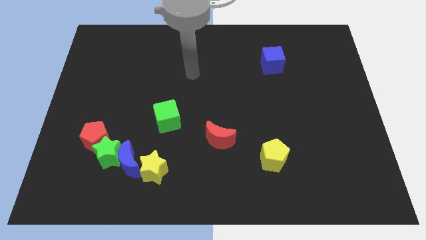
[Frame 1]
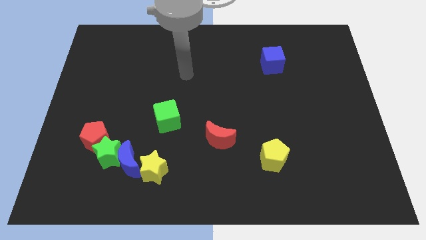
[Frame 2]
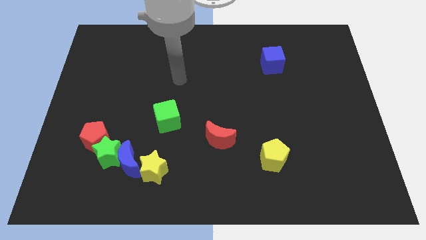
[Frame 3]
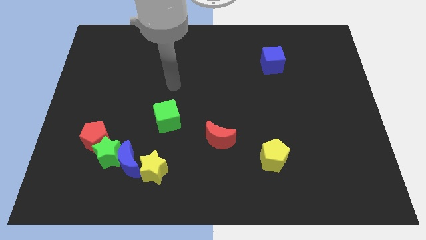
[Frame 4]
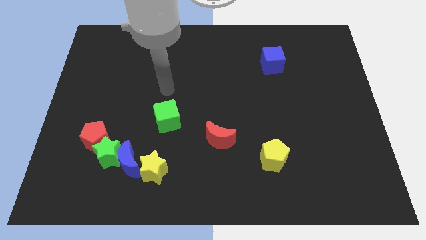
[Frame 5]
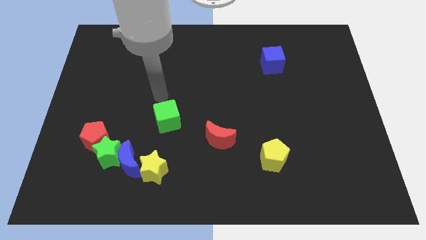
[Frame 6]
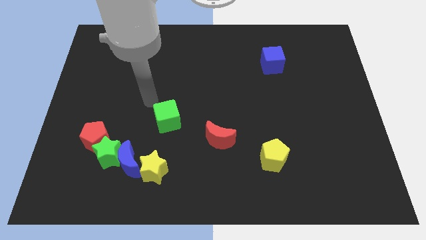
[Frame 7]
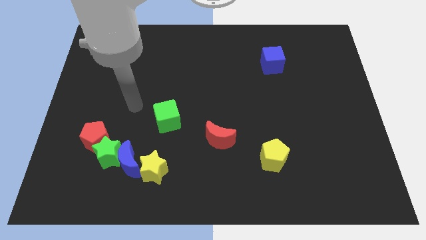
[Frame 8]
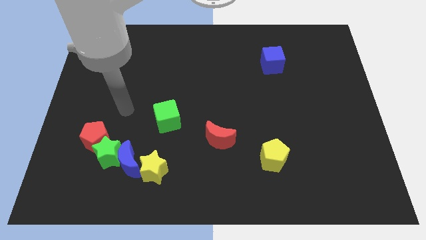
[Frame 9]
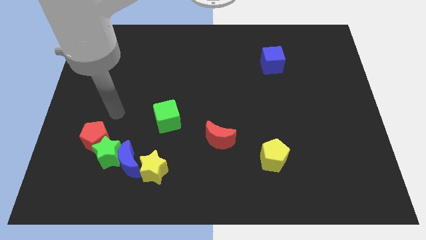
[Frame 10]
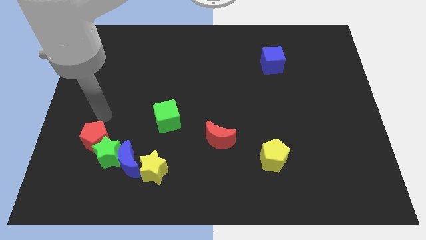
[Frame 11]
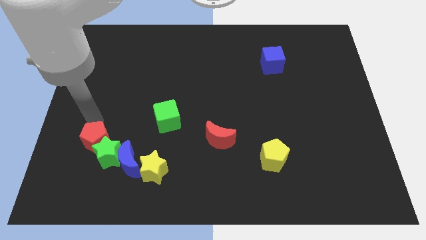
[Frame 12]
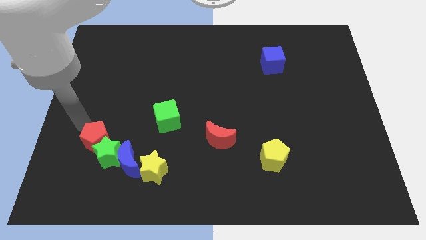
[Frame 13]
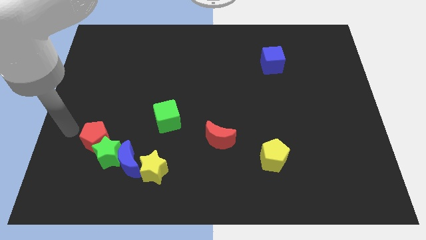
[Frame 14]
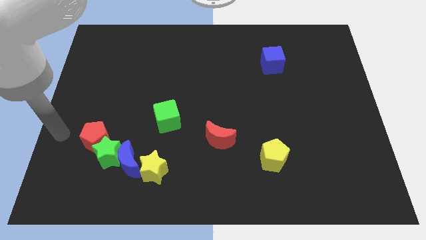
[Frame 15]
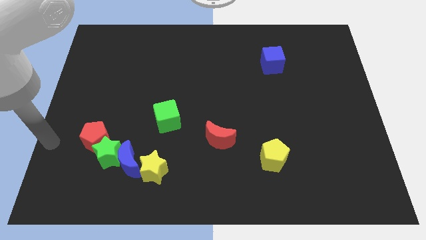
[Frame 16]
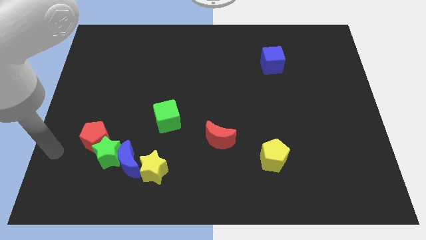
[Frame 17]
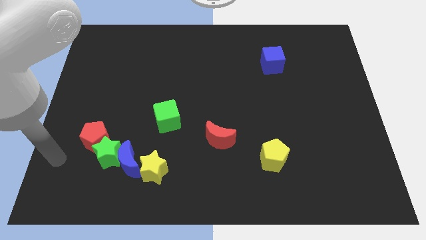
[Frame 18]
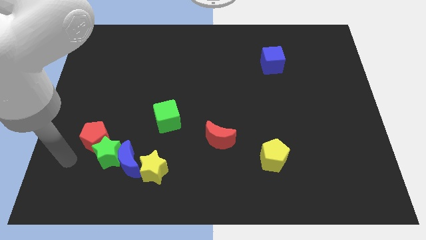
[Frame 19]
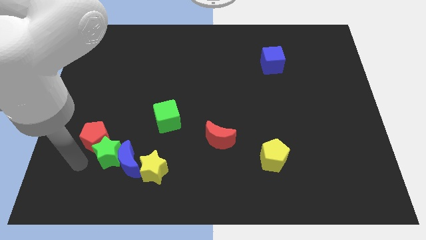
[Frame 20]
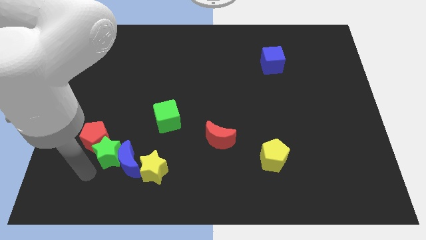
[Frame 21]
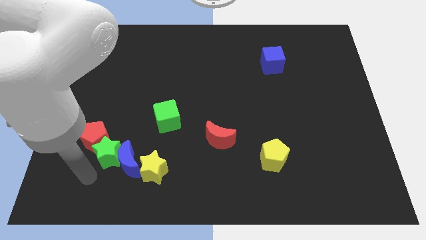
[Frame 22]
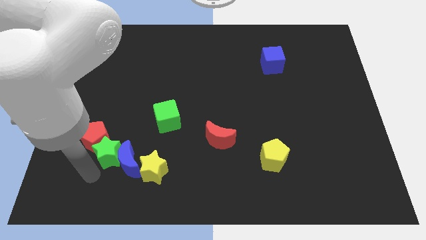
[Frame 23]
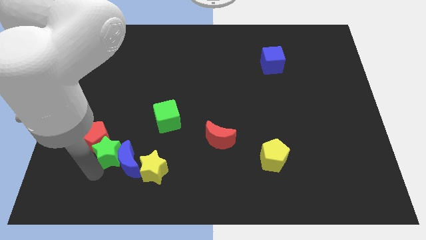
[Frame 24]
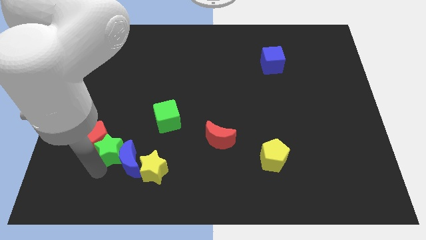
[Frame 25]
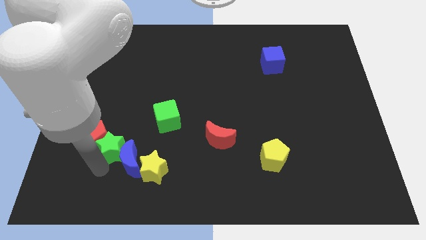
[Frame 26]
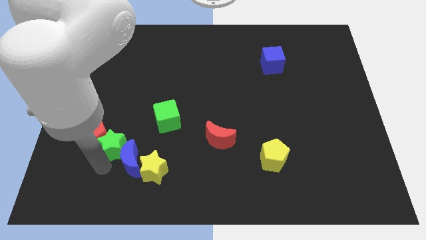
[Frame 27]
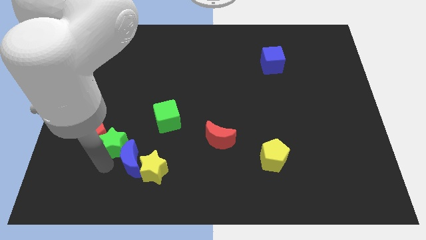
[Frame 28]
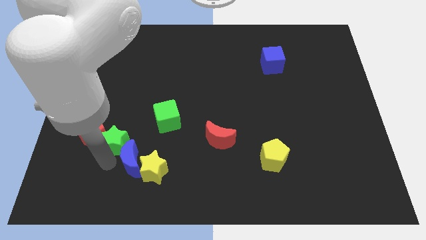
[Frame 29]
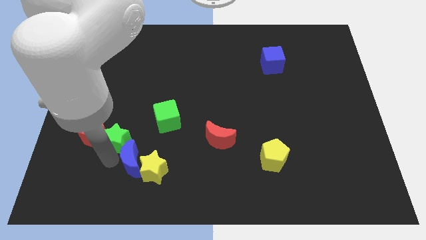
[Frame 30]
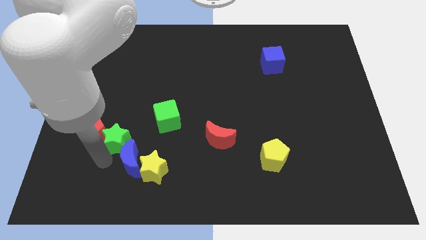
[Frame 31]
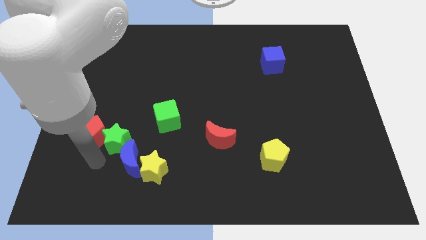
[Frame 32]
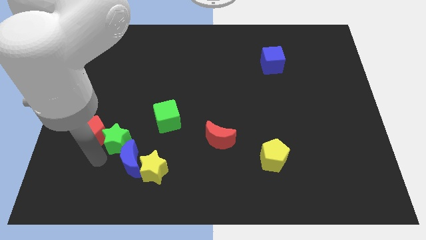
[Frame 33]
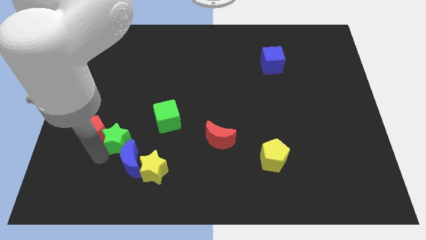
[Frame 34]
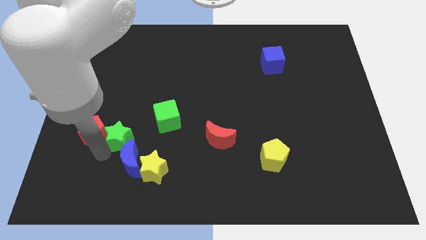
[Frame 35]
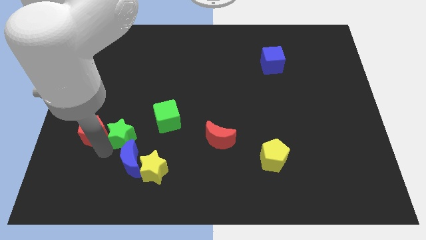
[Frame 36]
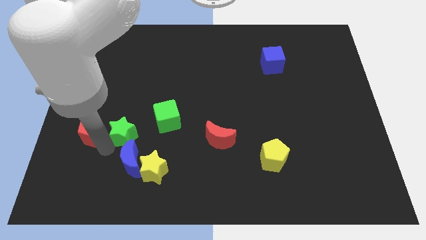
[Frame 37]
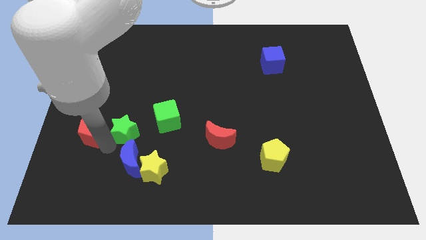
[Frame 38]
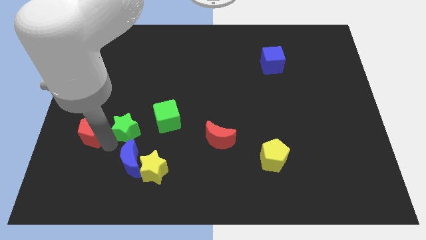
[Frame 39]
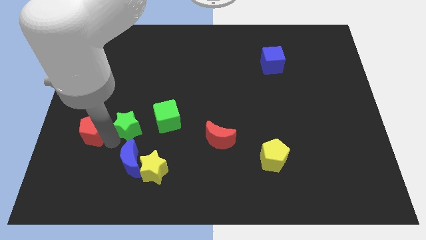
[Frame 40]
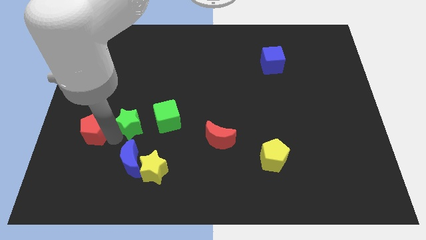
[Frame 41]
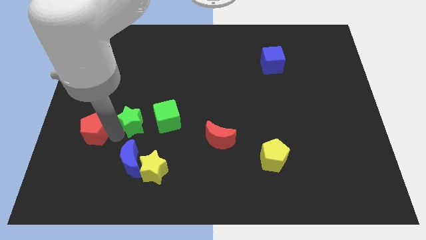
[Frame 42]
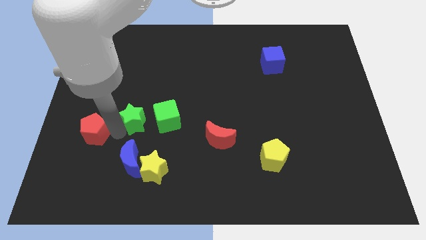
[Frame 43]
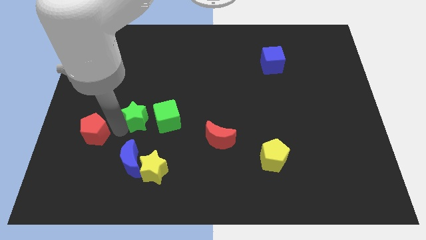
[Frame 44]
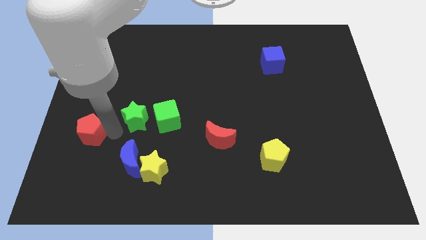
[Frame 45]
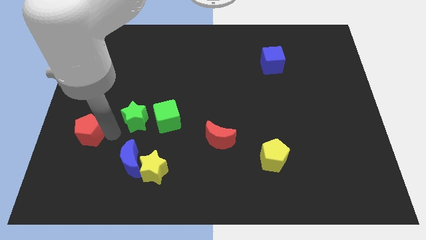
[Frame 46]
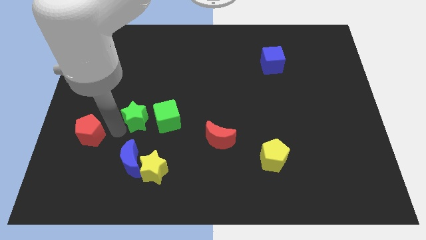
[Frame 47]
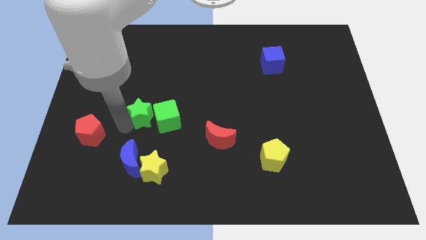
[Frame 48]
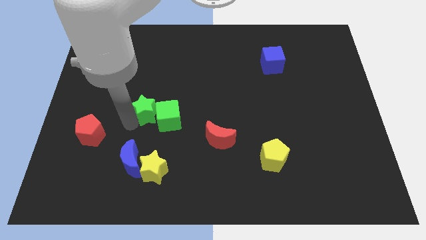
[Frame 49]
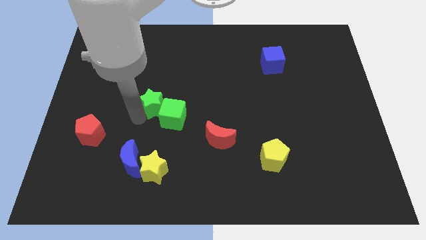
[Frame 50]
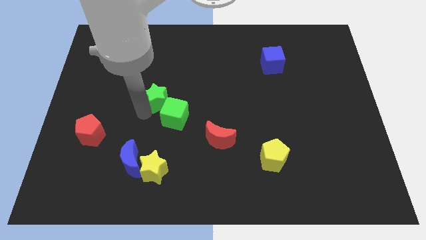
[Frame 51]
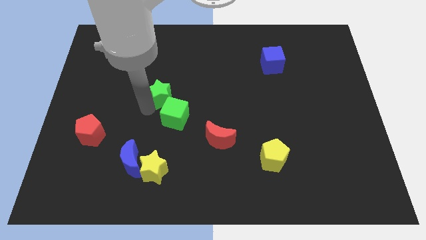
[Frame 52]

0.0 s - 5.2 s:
push the green star to the center

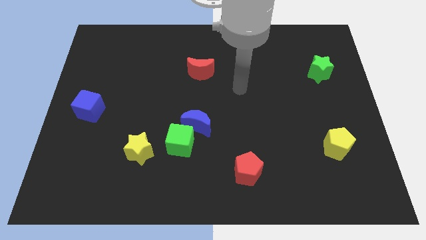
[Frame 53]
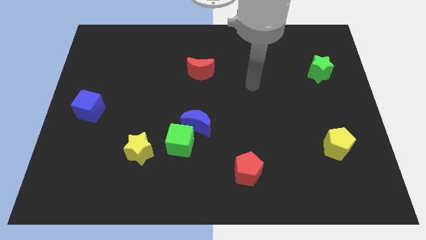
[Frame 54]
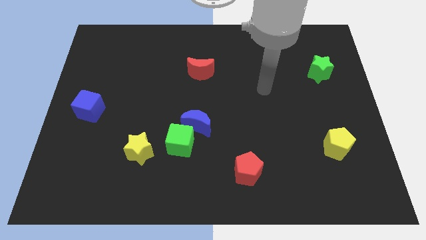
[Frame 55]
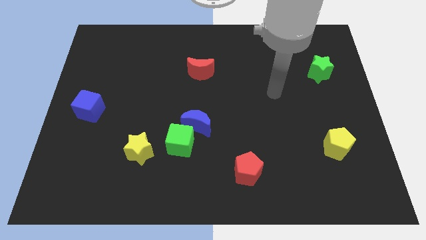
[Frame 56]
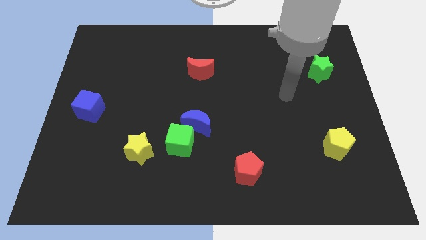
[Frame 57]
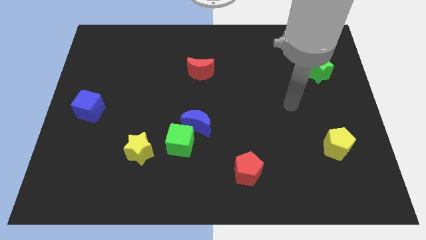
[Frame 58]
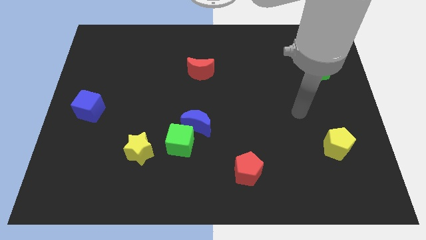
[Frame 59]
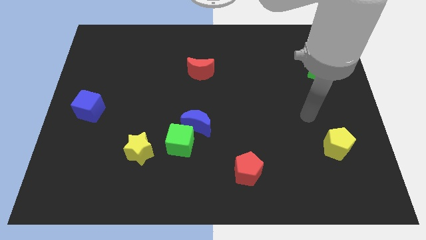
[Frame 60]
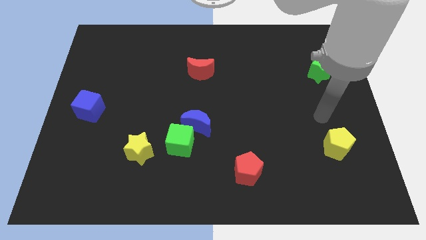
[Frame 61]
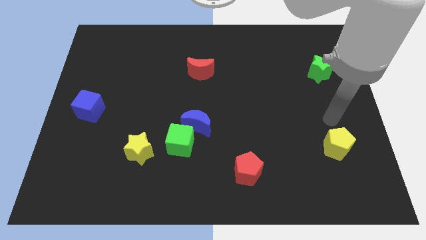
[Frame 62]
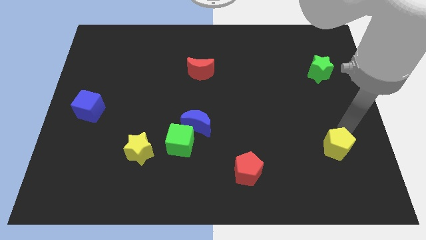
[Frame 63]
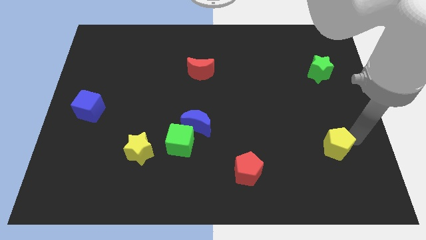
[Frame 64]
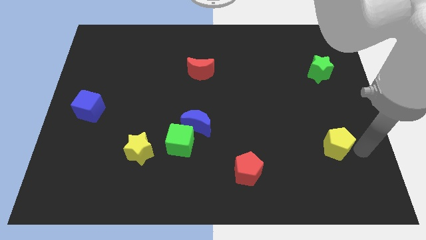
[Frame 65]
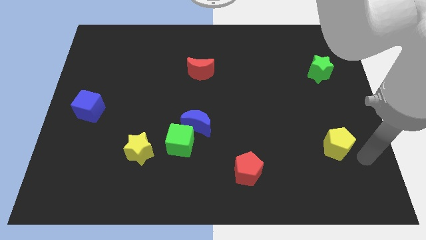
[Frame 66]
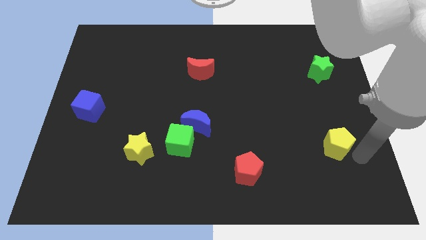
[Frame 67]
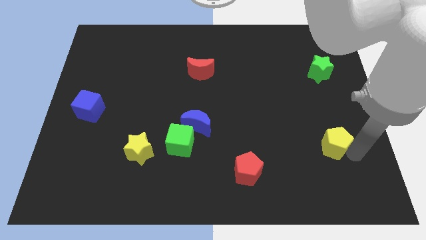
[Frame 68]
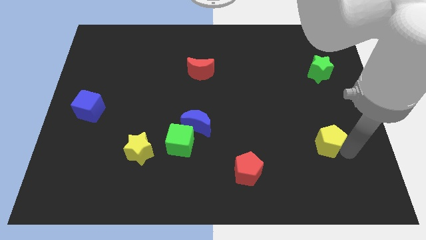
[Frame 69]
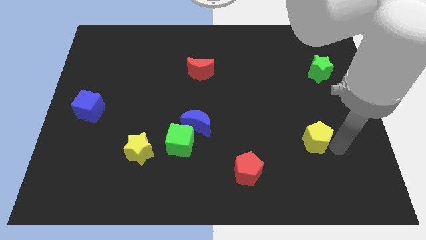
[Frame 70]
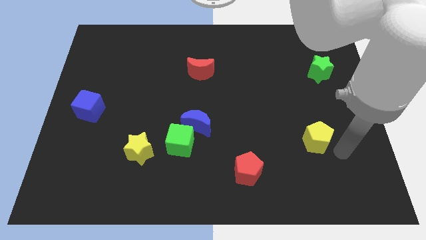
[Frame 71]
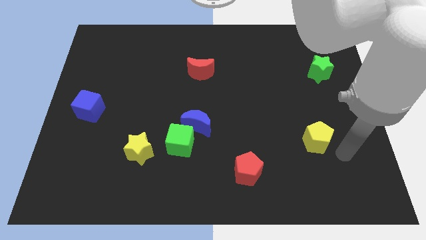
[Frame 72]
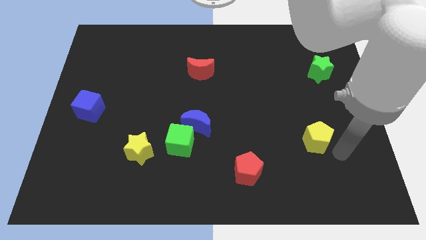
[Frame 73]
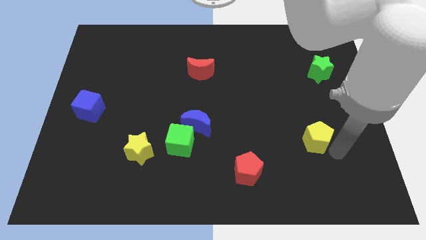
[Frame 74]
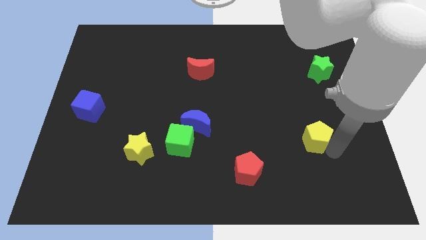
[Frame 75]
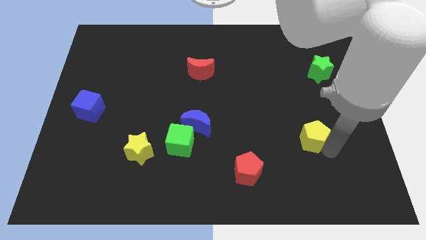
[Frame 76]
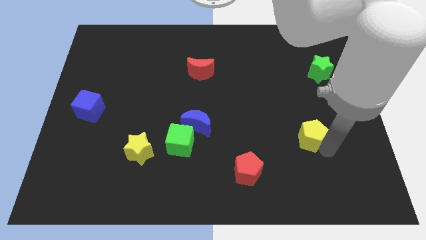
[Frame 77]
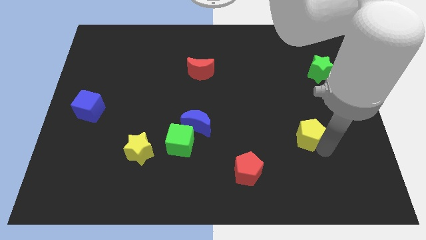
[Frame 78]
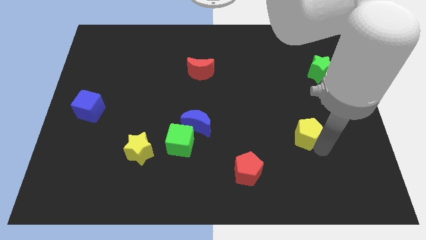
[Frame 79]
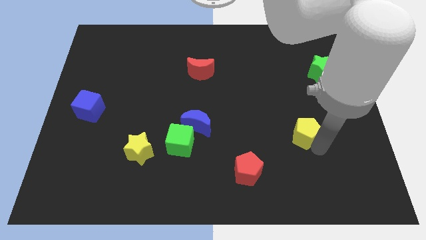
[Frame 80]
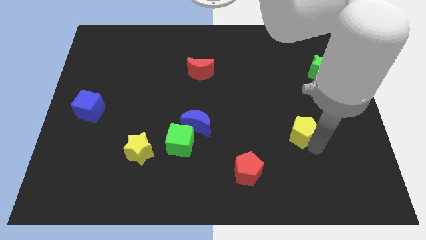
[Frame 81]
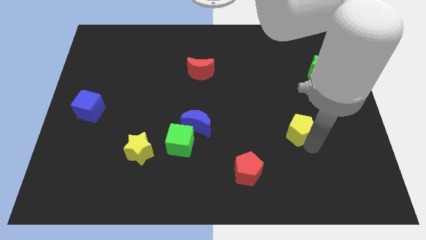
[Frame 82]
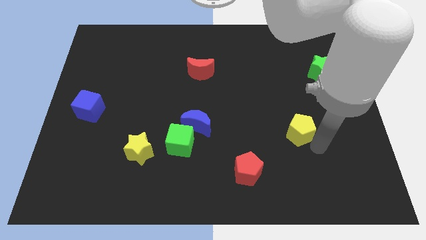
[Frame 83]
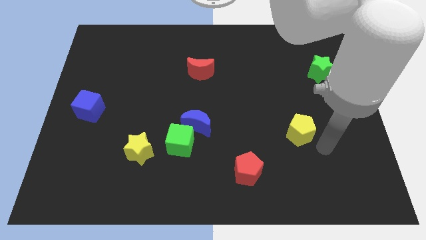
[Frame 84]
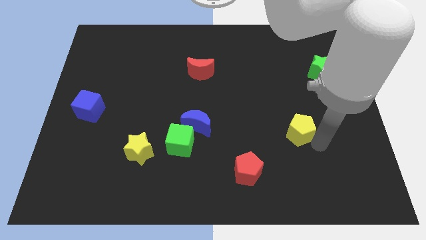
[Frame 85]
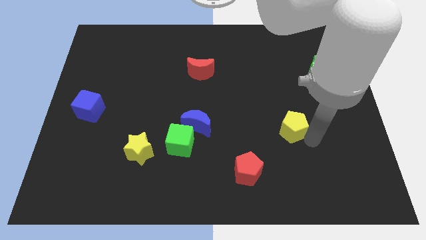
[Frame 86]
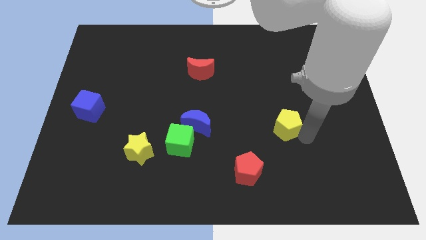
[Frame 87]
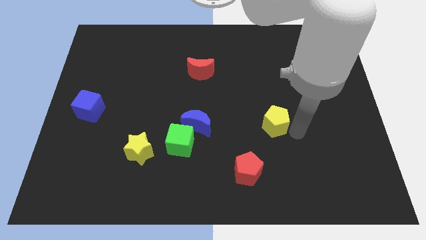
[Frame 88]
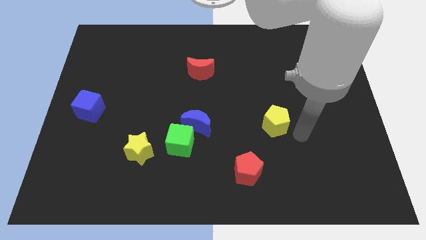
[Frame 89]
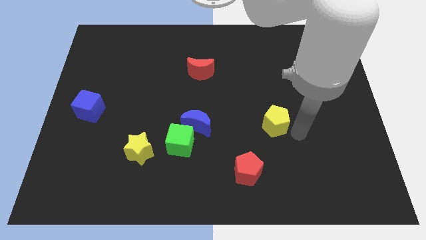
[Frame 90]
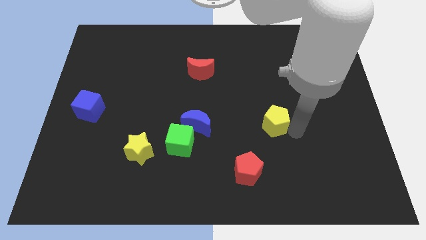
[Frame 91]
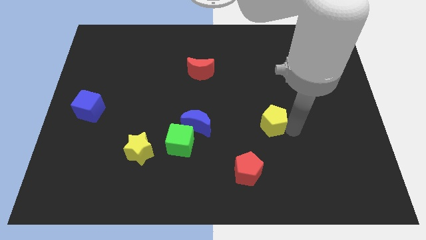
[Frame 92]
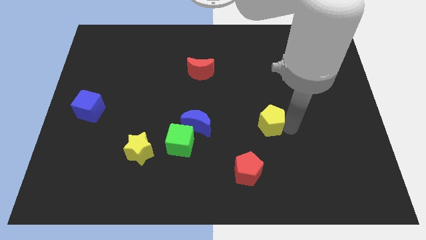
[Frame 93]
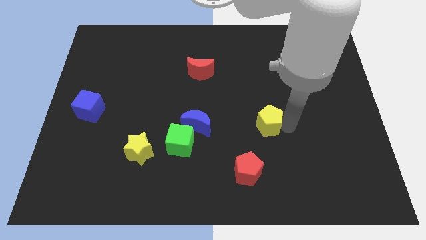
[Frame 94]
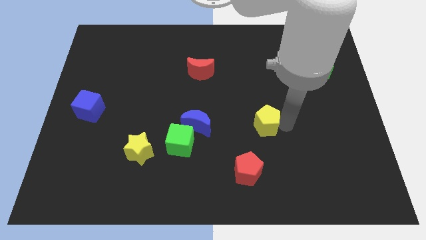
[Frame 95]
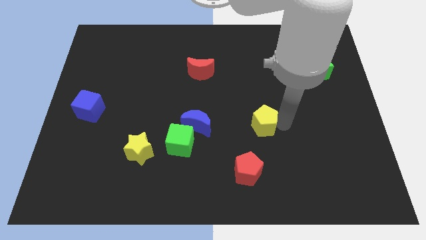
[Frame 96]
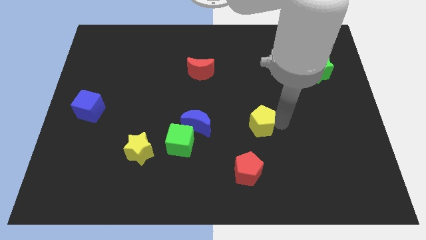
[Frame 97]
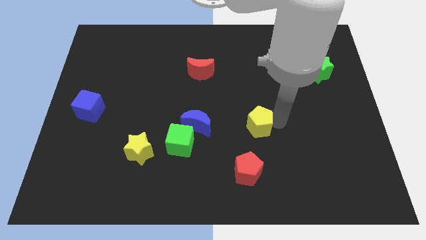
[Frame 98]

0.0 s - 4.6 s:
slide the yellow pentagon to the center of the board
